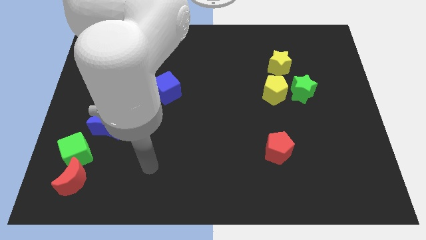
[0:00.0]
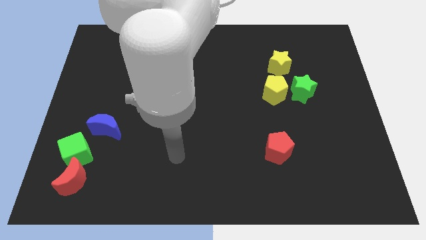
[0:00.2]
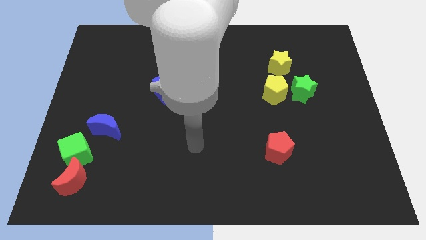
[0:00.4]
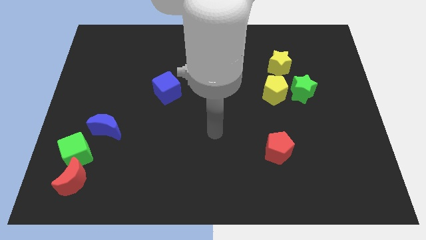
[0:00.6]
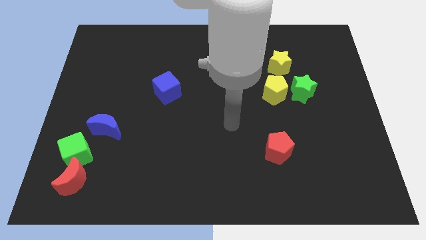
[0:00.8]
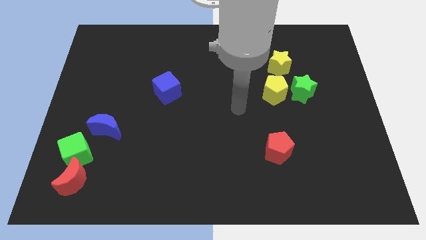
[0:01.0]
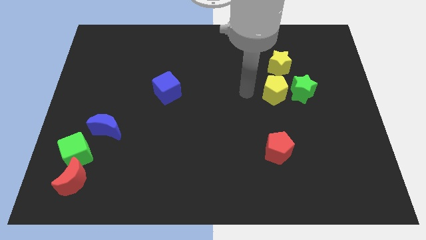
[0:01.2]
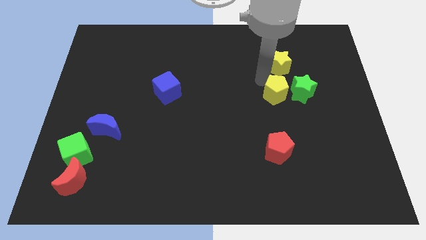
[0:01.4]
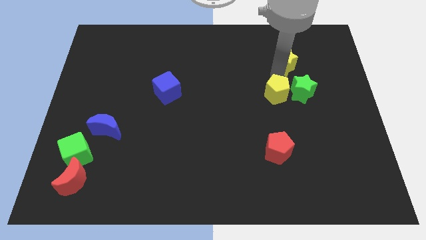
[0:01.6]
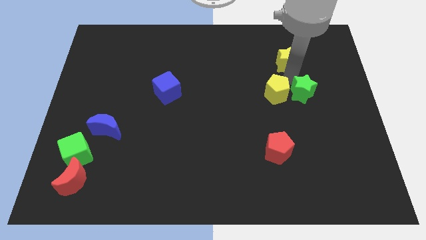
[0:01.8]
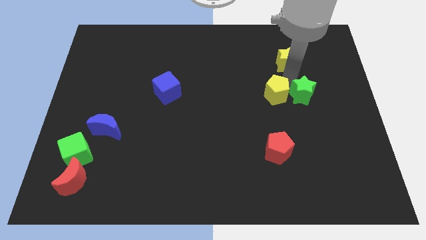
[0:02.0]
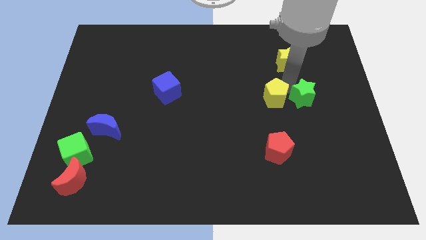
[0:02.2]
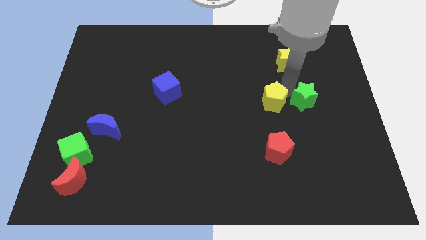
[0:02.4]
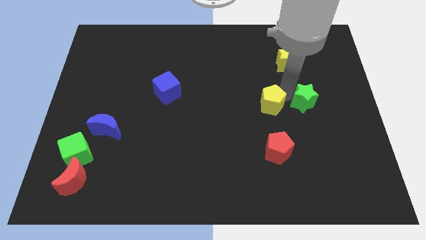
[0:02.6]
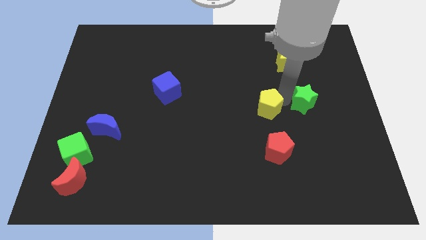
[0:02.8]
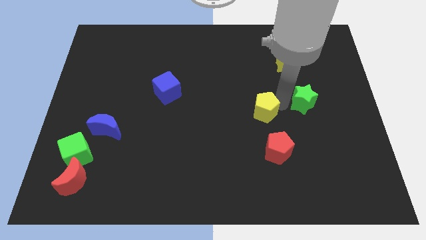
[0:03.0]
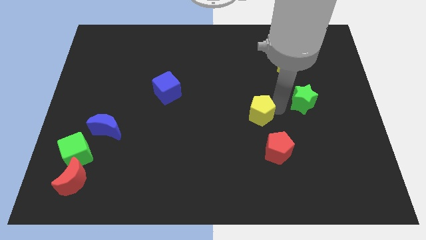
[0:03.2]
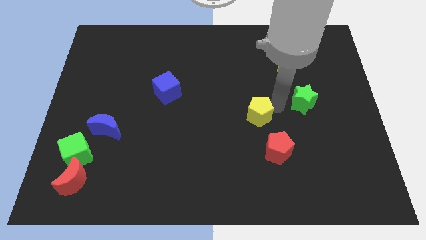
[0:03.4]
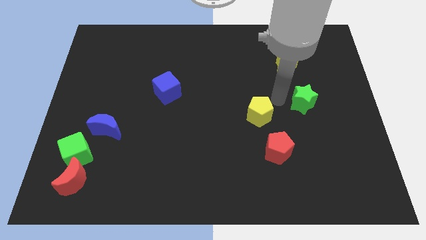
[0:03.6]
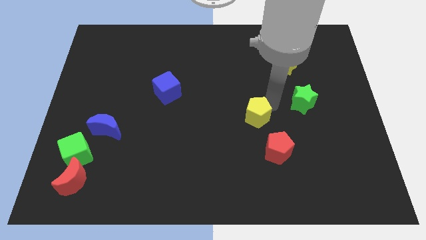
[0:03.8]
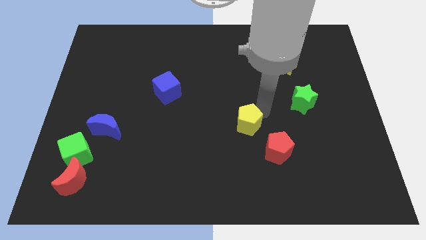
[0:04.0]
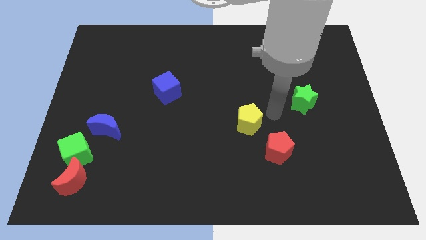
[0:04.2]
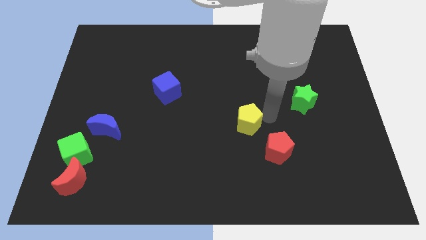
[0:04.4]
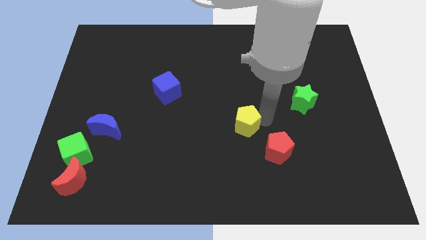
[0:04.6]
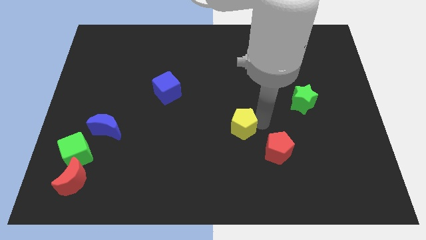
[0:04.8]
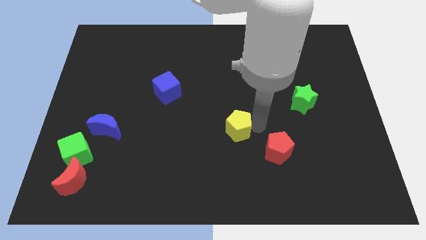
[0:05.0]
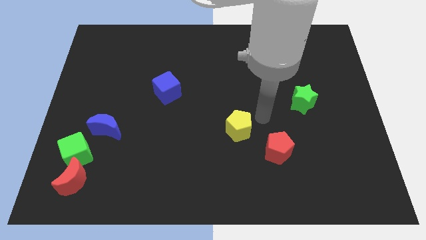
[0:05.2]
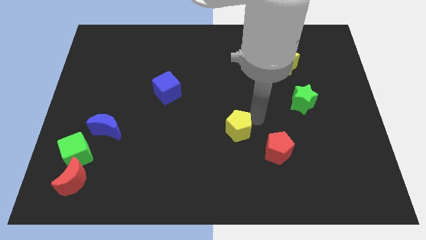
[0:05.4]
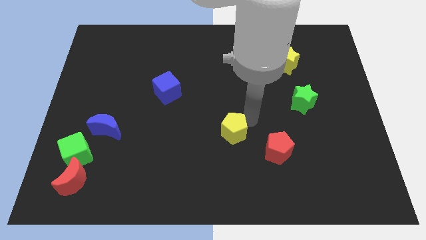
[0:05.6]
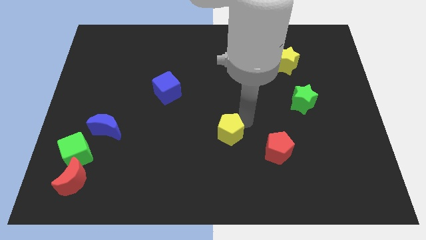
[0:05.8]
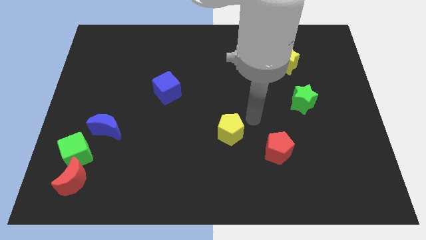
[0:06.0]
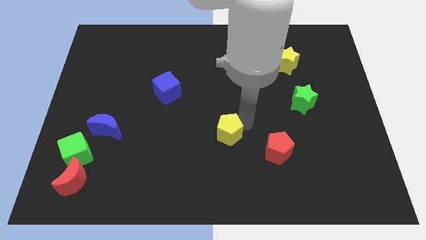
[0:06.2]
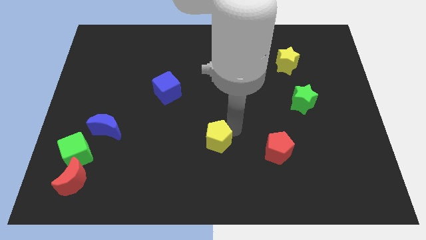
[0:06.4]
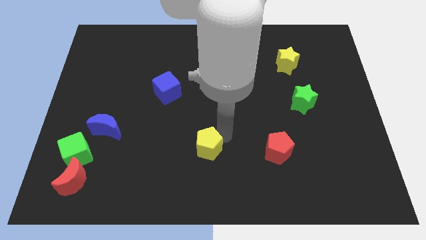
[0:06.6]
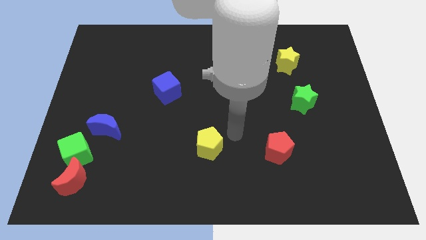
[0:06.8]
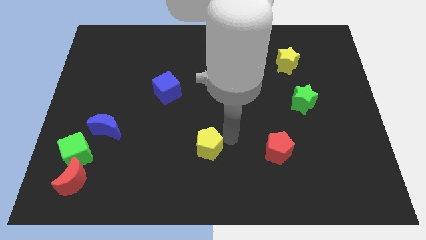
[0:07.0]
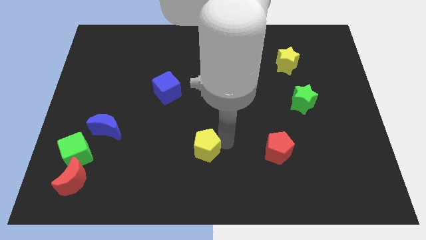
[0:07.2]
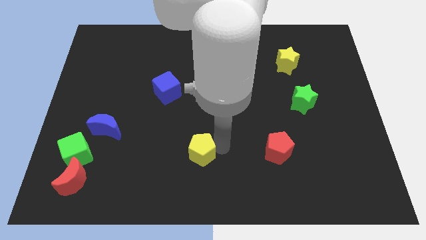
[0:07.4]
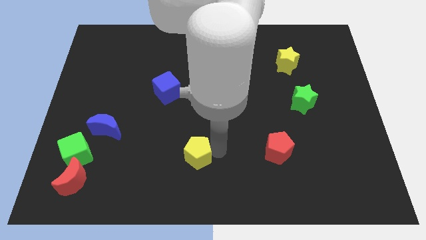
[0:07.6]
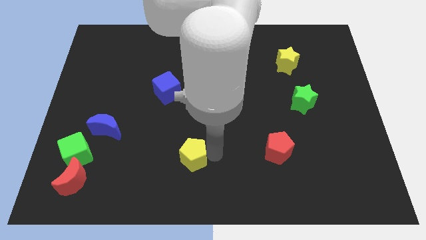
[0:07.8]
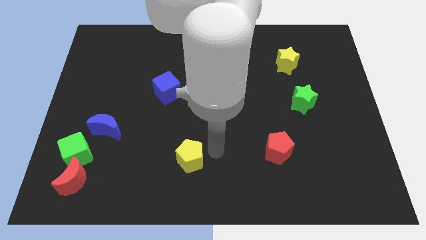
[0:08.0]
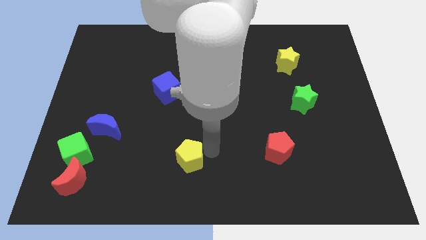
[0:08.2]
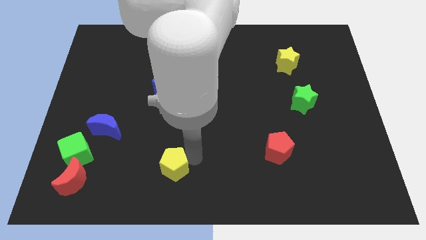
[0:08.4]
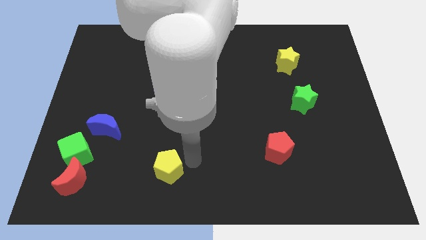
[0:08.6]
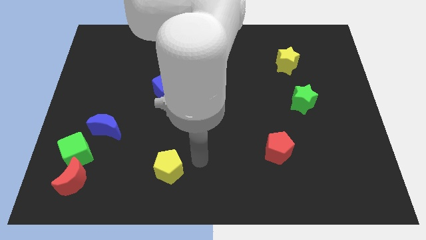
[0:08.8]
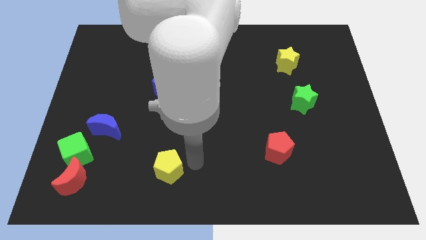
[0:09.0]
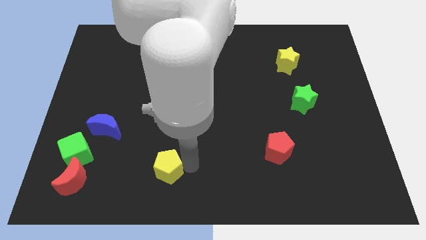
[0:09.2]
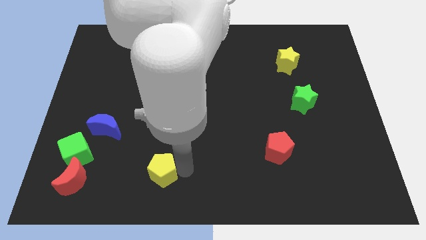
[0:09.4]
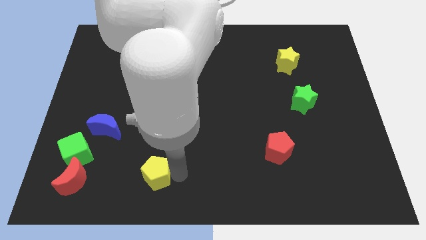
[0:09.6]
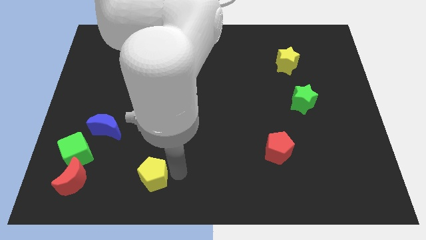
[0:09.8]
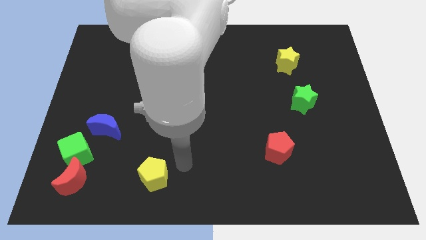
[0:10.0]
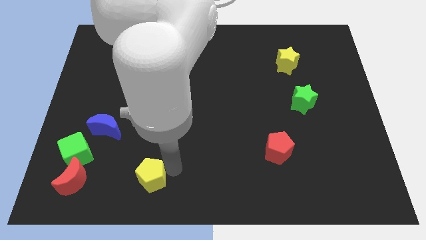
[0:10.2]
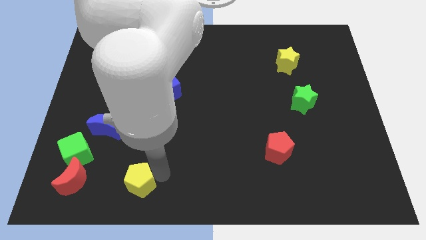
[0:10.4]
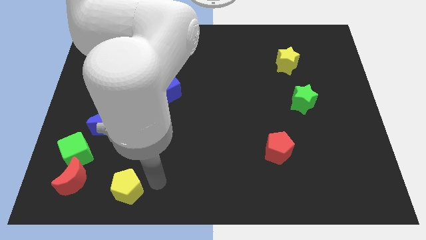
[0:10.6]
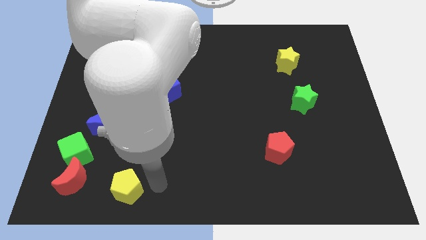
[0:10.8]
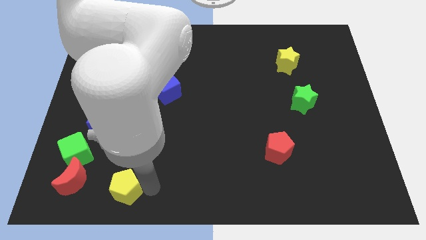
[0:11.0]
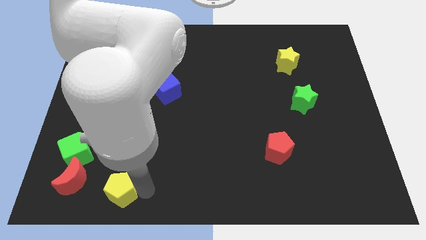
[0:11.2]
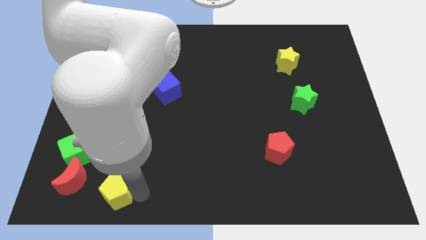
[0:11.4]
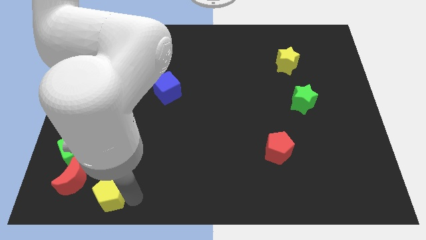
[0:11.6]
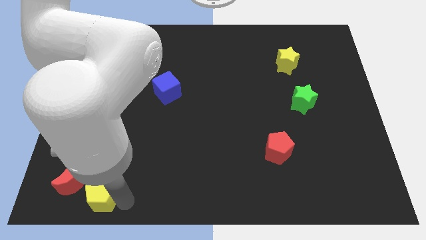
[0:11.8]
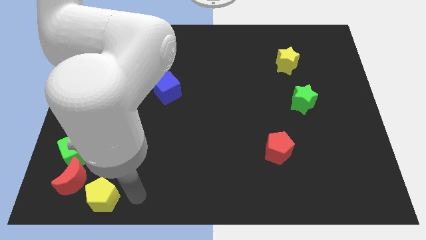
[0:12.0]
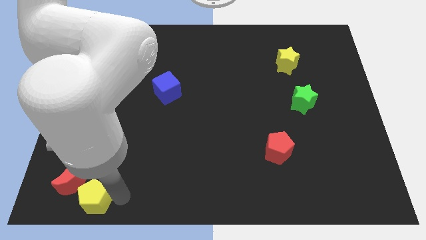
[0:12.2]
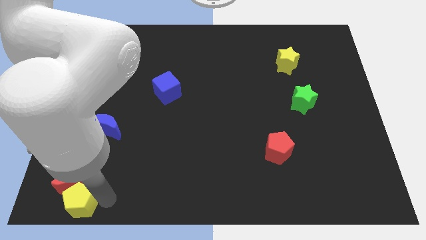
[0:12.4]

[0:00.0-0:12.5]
push the yellow pentagon to the bottom left
